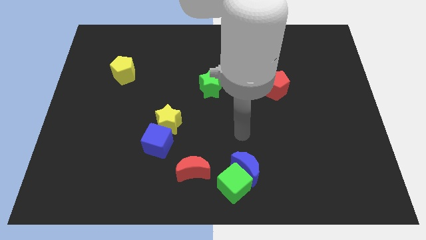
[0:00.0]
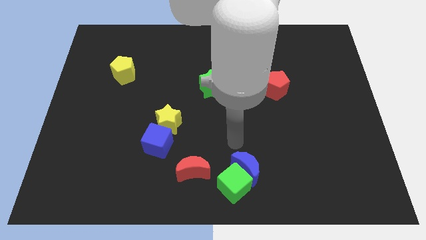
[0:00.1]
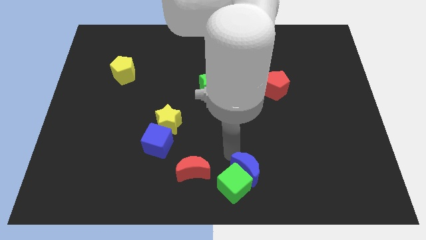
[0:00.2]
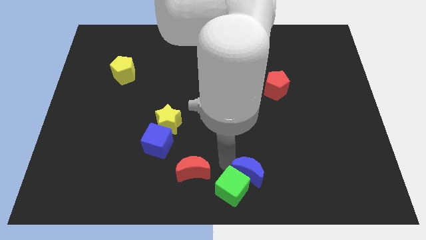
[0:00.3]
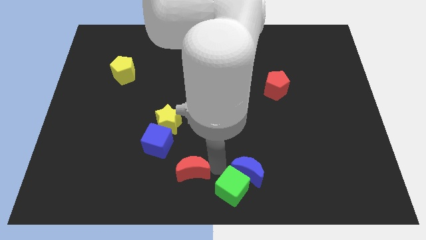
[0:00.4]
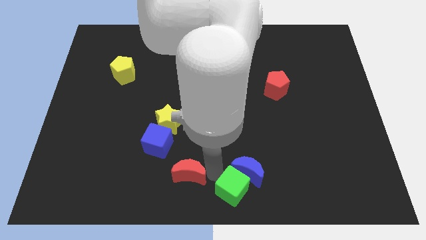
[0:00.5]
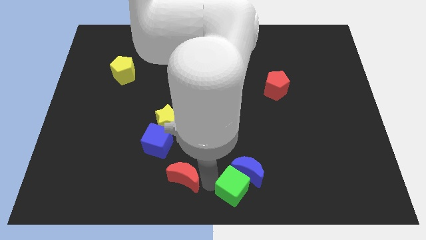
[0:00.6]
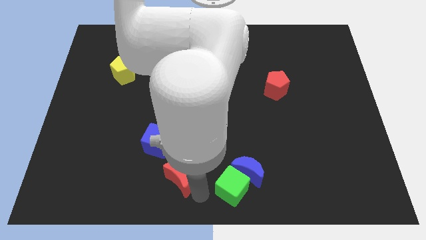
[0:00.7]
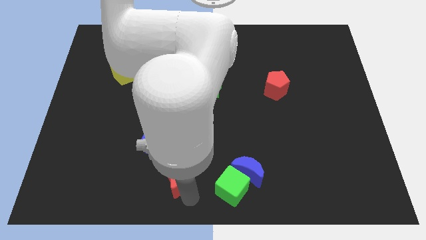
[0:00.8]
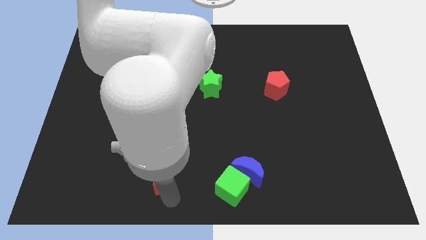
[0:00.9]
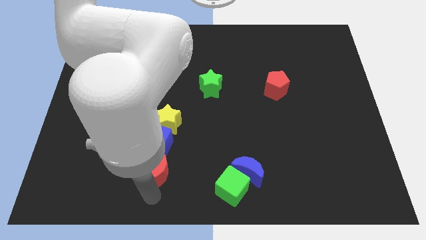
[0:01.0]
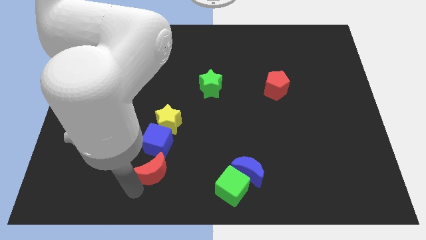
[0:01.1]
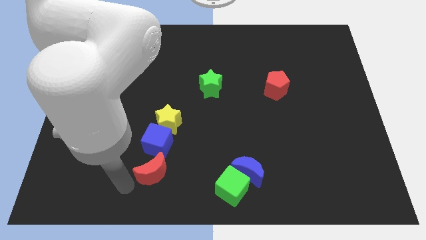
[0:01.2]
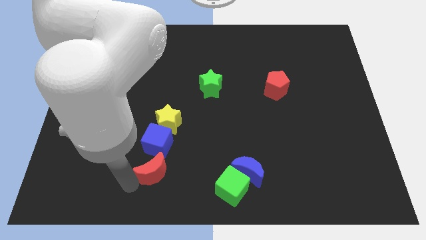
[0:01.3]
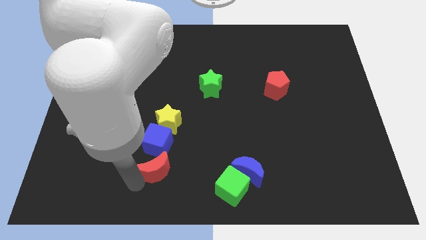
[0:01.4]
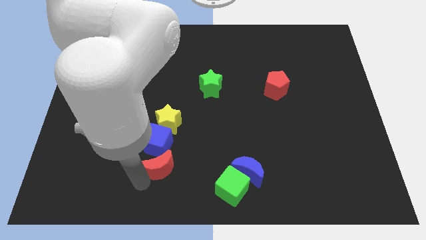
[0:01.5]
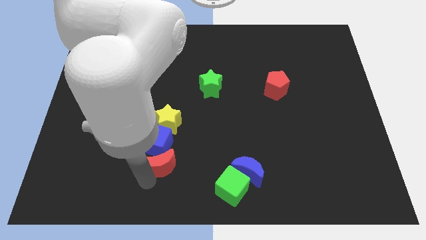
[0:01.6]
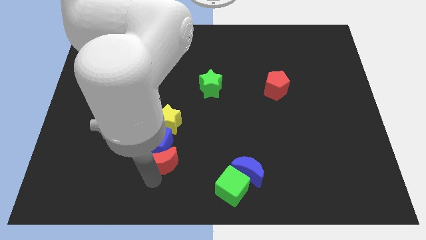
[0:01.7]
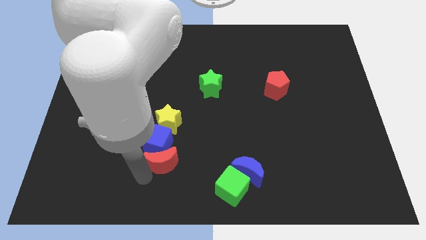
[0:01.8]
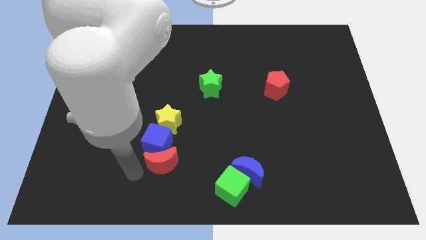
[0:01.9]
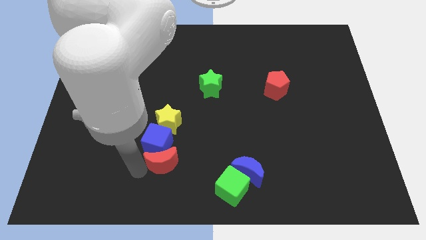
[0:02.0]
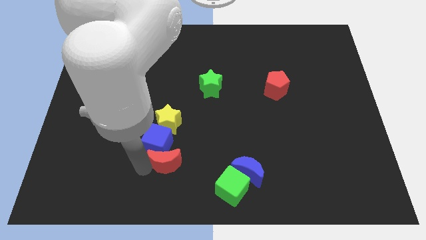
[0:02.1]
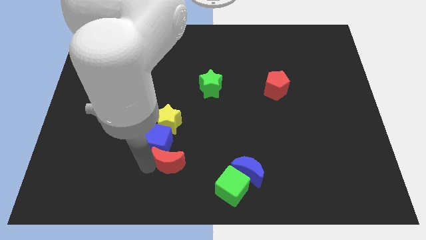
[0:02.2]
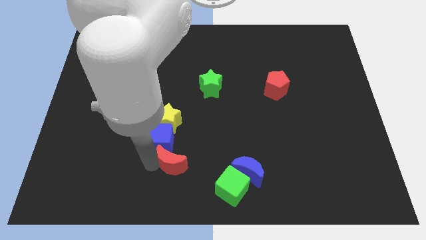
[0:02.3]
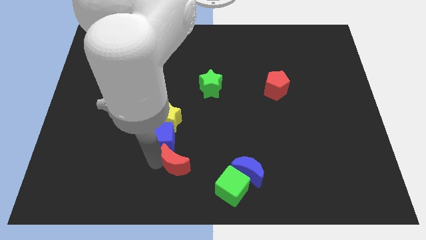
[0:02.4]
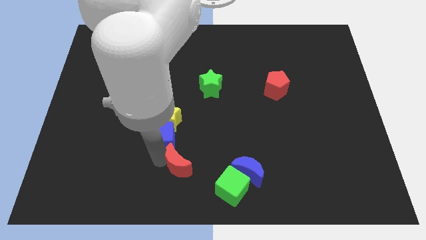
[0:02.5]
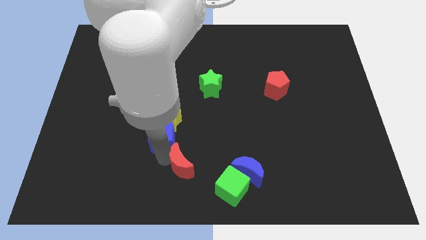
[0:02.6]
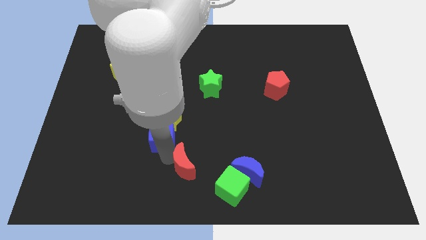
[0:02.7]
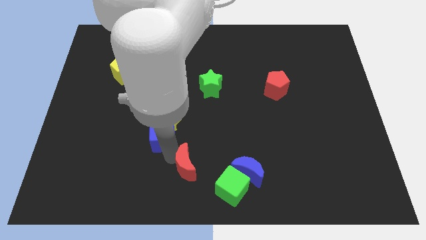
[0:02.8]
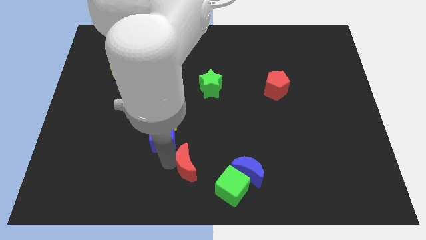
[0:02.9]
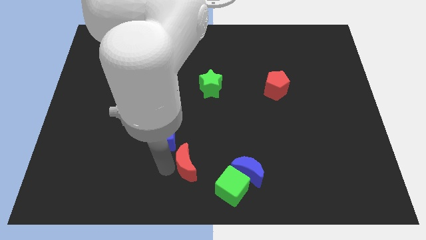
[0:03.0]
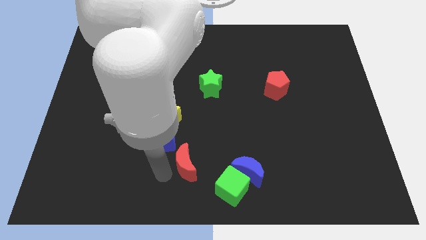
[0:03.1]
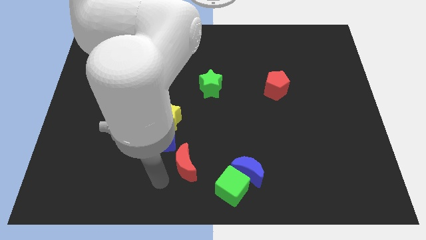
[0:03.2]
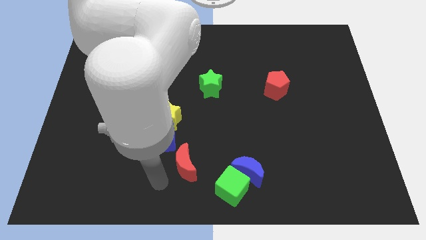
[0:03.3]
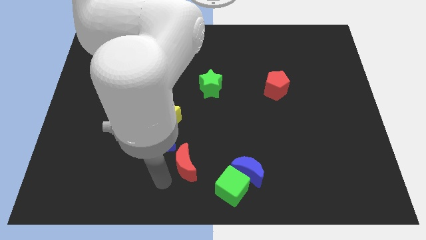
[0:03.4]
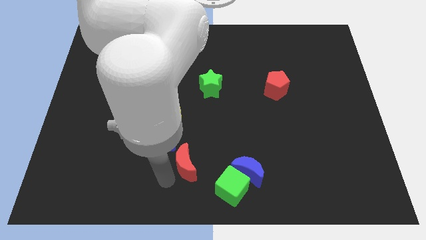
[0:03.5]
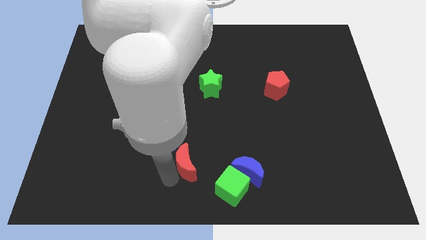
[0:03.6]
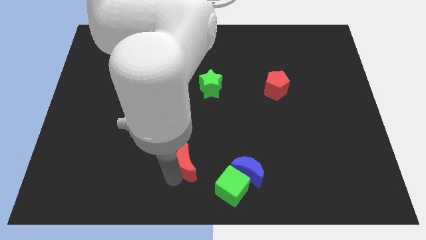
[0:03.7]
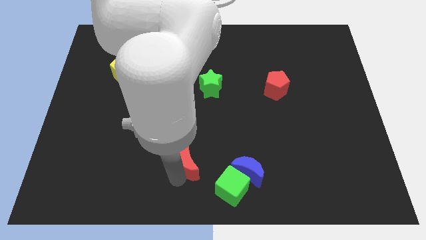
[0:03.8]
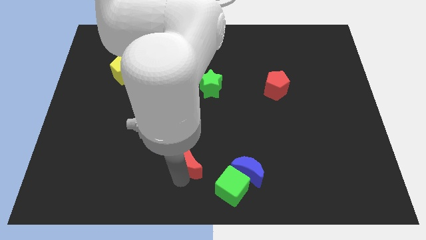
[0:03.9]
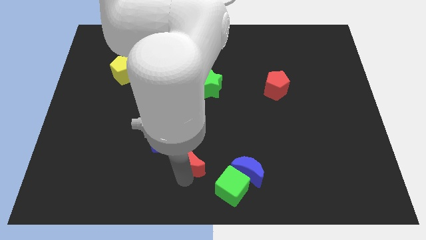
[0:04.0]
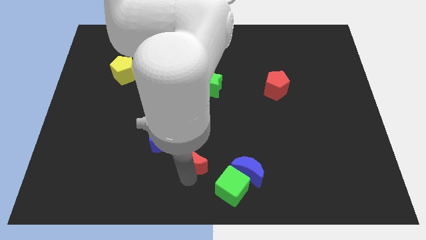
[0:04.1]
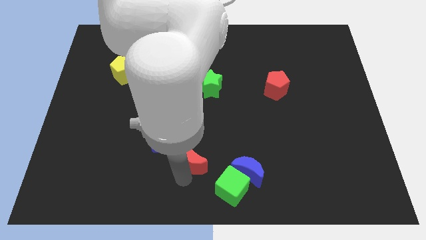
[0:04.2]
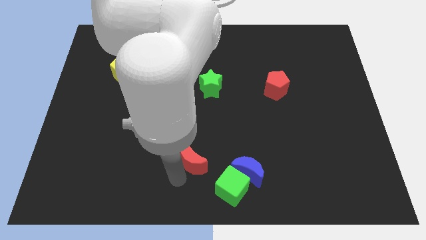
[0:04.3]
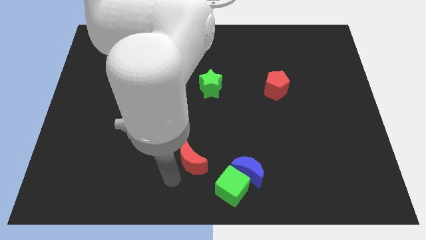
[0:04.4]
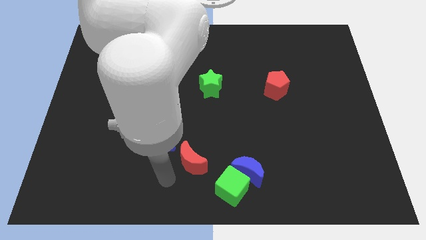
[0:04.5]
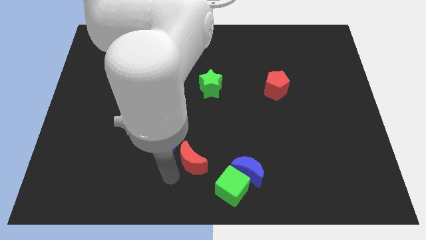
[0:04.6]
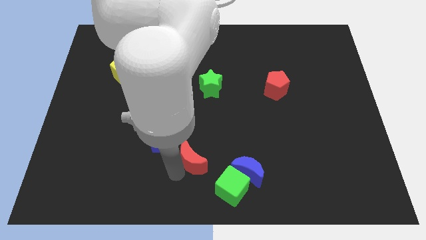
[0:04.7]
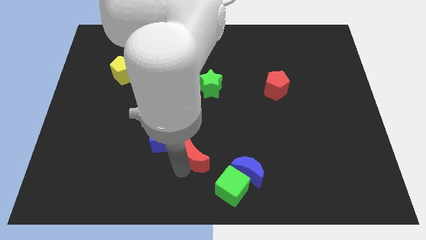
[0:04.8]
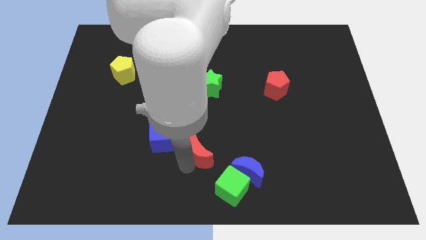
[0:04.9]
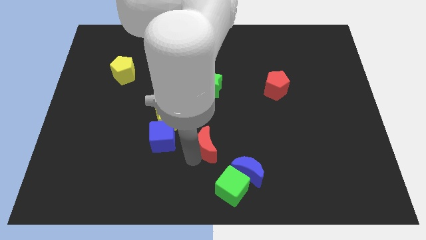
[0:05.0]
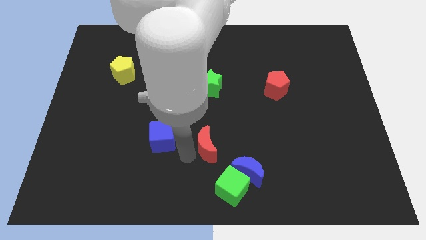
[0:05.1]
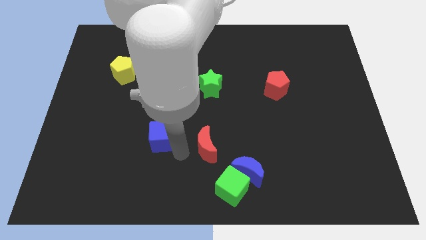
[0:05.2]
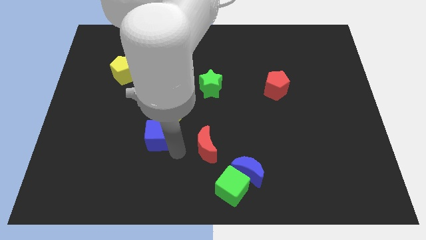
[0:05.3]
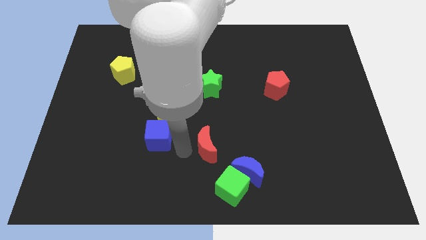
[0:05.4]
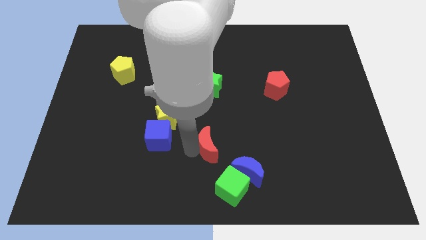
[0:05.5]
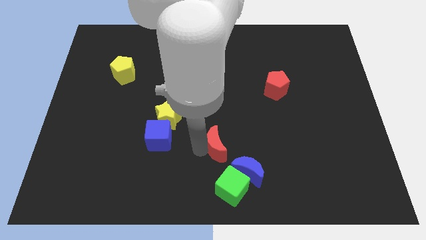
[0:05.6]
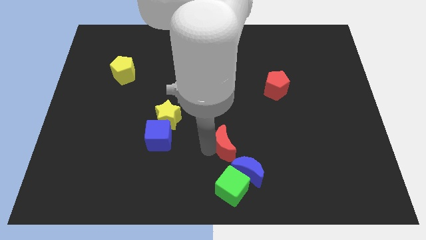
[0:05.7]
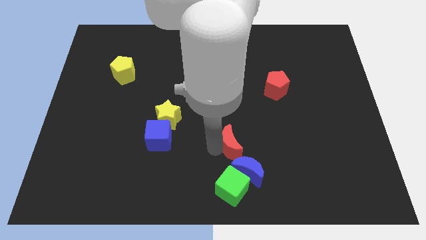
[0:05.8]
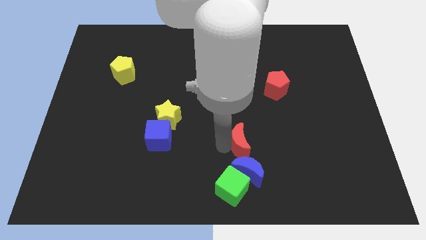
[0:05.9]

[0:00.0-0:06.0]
move the red moon a little to the right

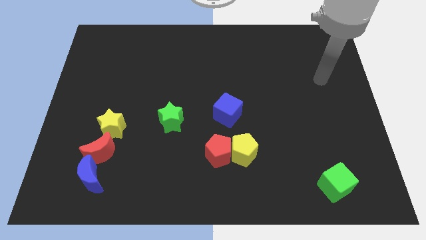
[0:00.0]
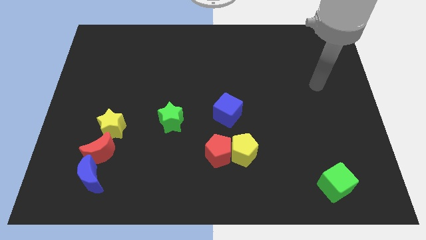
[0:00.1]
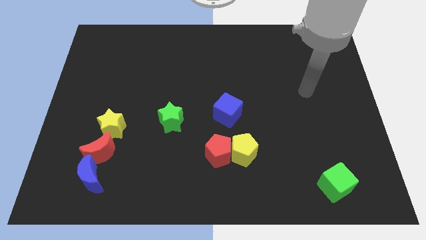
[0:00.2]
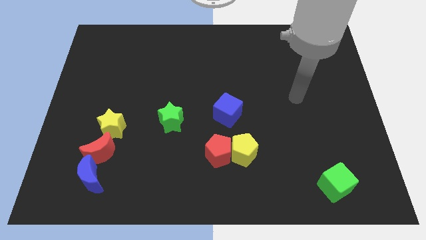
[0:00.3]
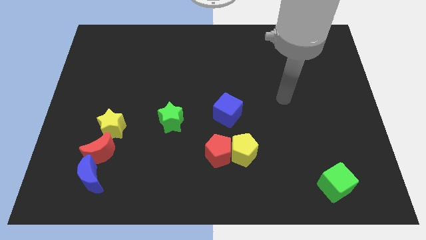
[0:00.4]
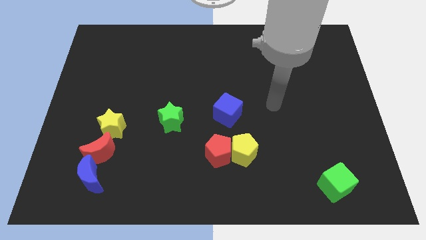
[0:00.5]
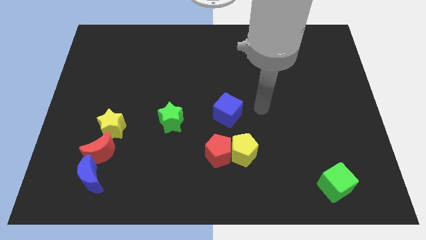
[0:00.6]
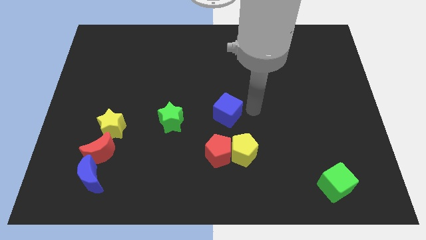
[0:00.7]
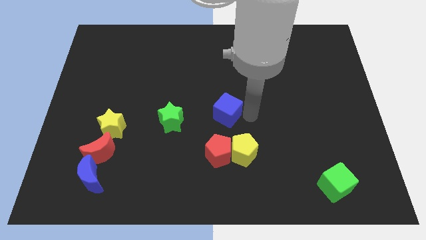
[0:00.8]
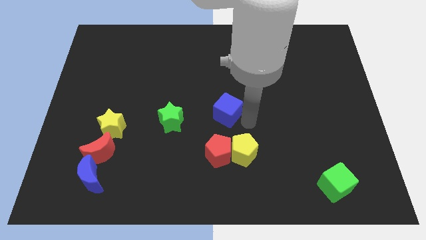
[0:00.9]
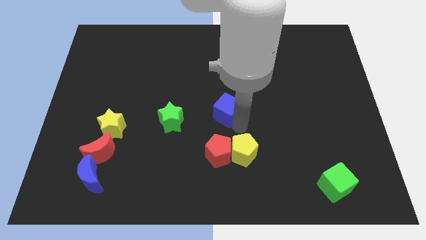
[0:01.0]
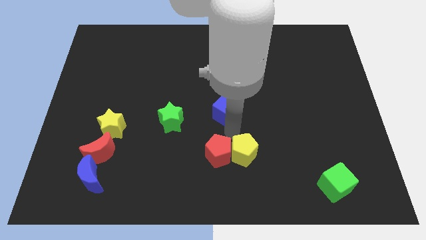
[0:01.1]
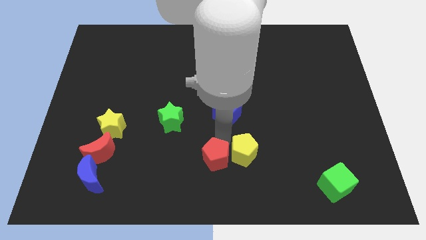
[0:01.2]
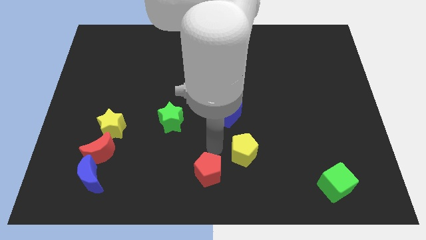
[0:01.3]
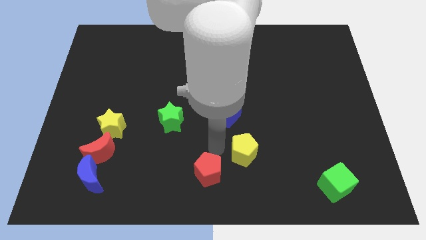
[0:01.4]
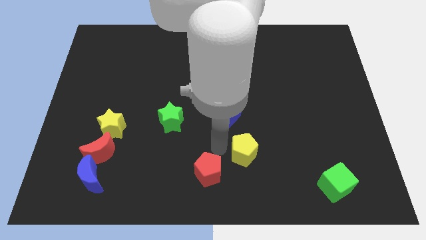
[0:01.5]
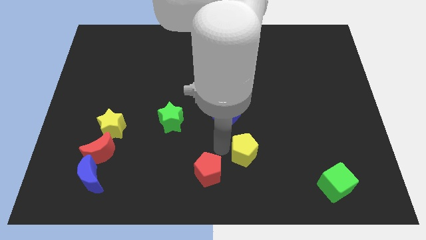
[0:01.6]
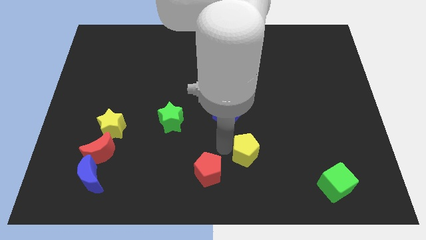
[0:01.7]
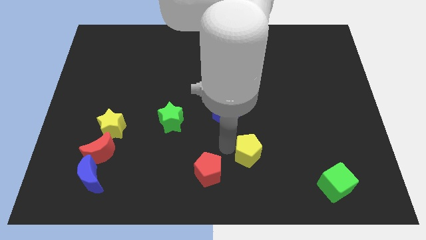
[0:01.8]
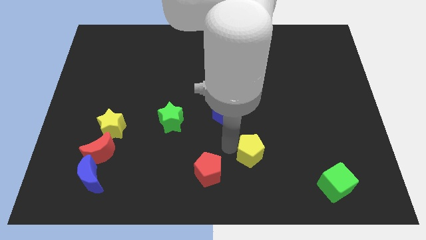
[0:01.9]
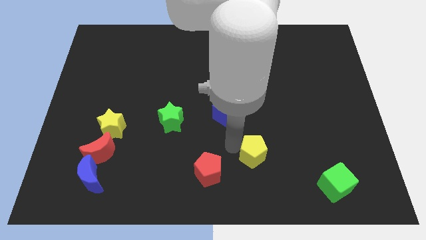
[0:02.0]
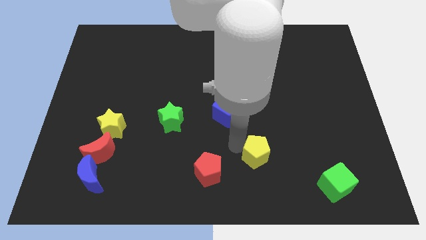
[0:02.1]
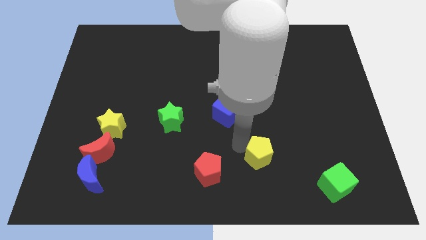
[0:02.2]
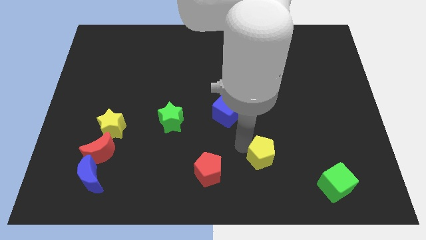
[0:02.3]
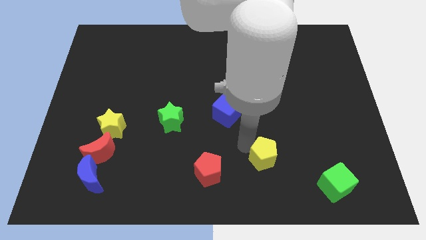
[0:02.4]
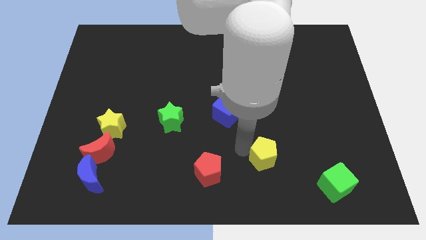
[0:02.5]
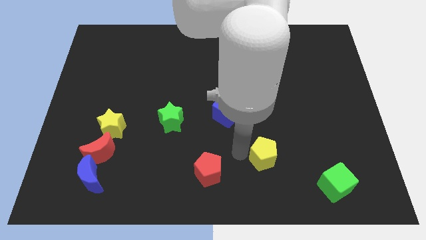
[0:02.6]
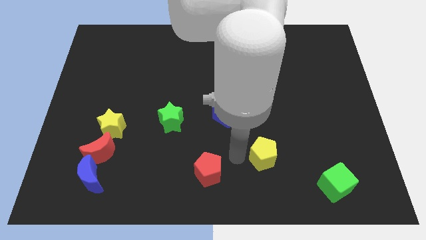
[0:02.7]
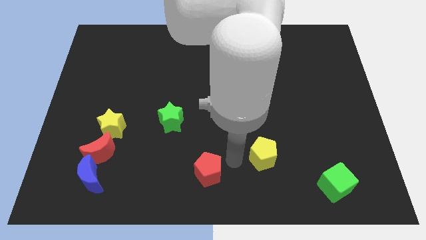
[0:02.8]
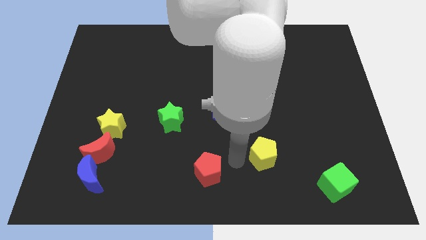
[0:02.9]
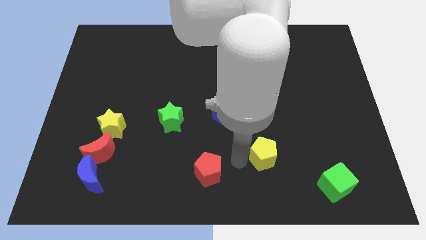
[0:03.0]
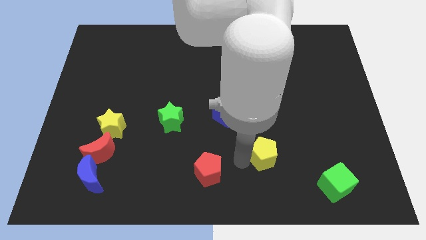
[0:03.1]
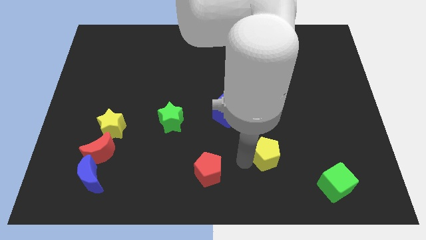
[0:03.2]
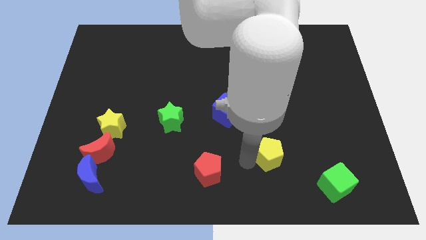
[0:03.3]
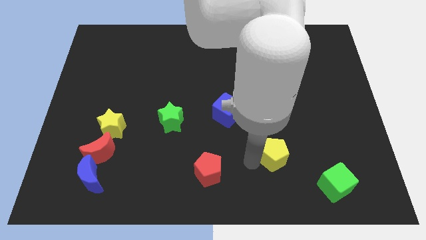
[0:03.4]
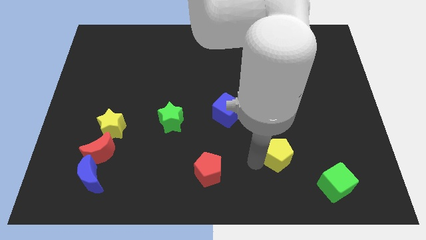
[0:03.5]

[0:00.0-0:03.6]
slightly push the yellow pentagon right
